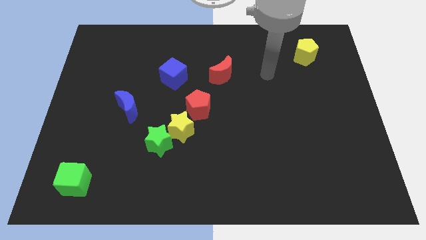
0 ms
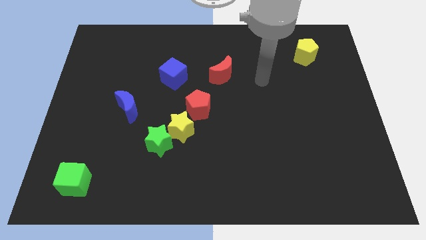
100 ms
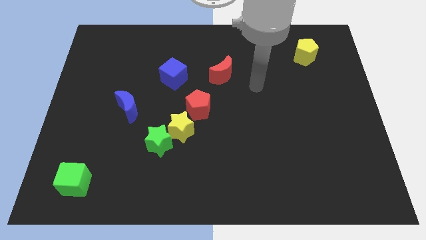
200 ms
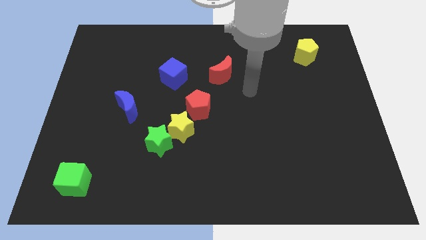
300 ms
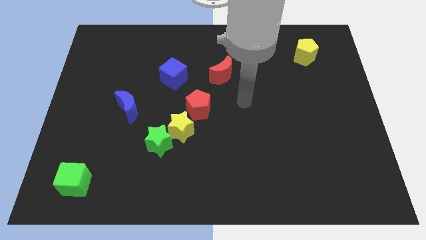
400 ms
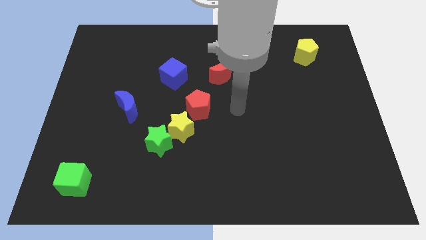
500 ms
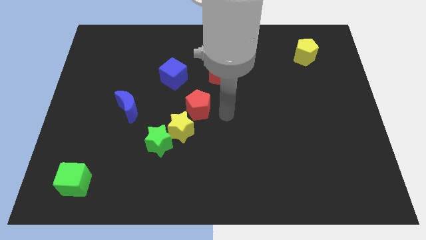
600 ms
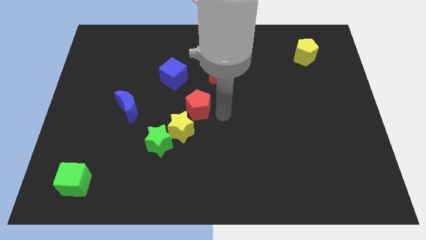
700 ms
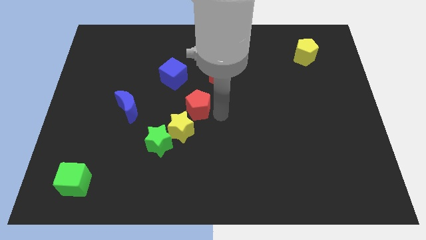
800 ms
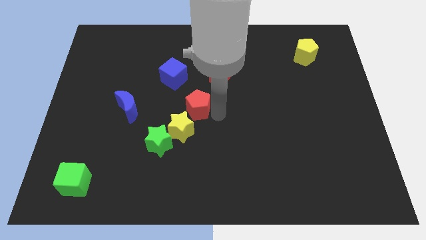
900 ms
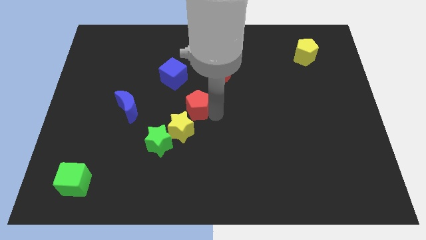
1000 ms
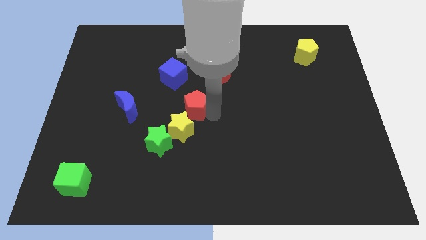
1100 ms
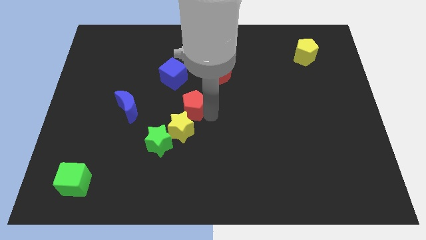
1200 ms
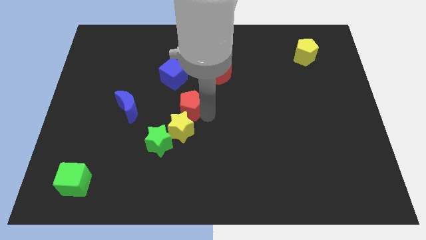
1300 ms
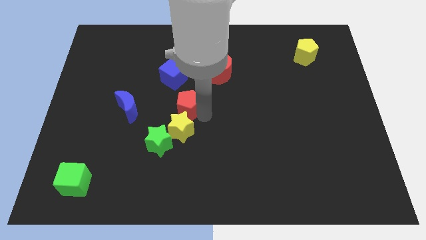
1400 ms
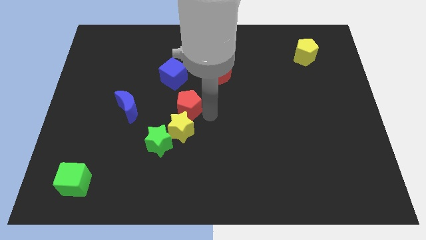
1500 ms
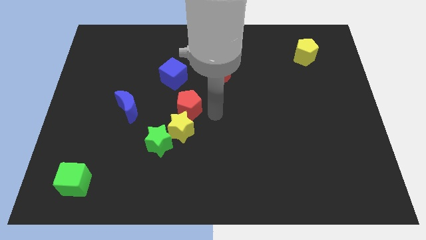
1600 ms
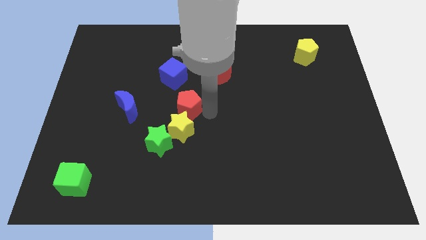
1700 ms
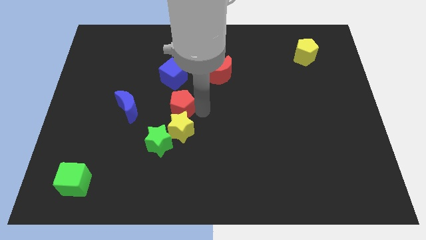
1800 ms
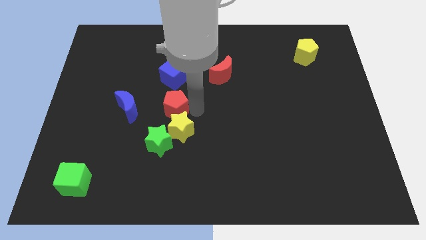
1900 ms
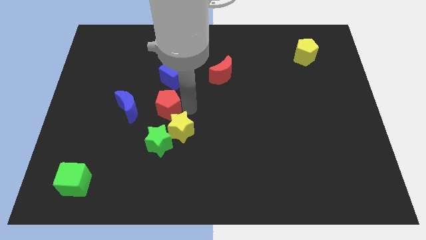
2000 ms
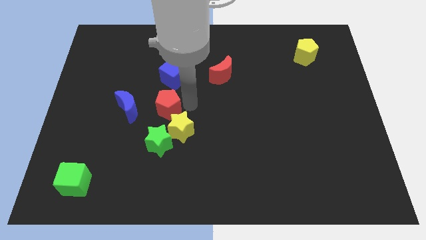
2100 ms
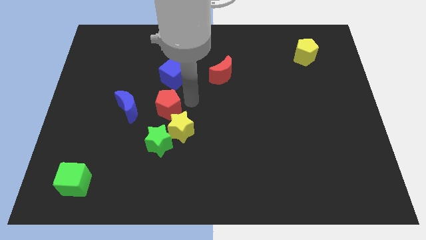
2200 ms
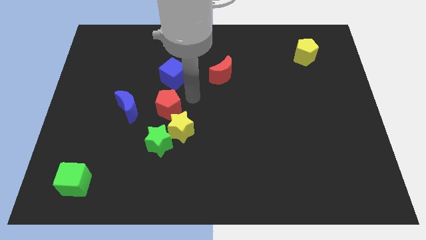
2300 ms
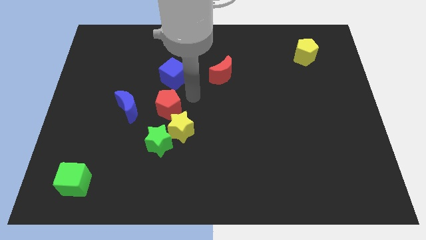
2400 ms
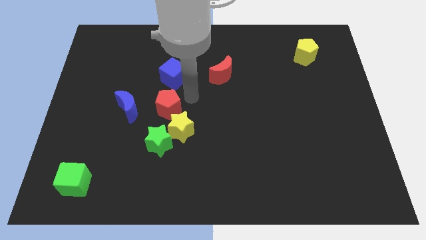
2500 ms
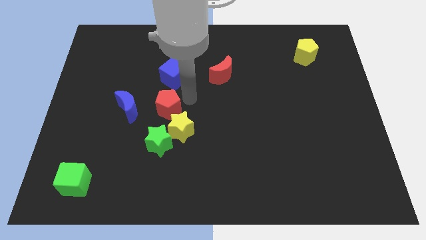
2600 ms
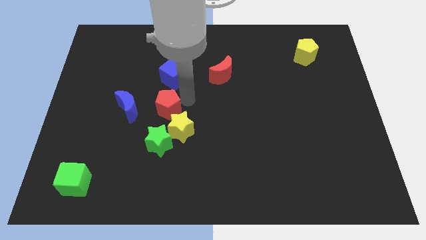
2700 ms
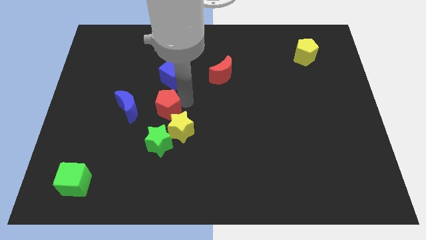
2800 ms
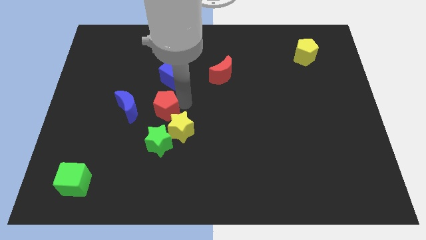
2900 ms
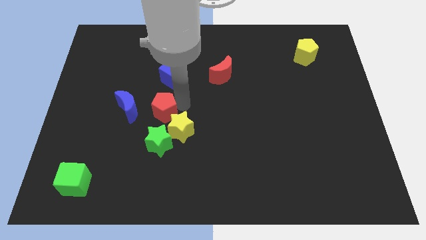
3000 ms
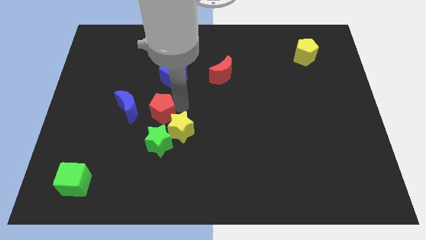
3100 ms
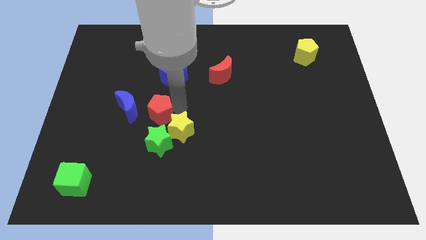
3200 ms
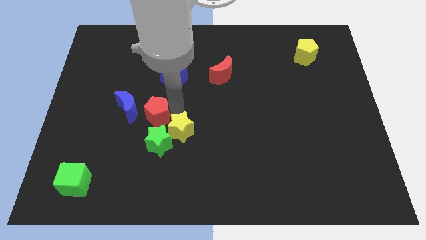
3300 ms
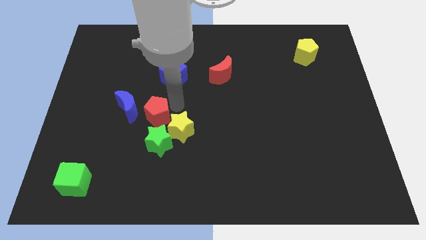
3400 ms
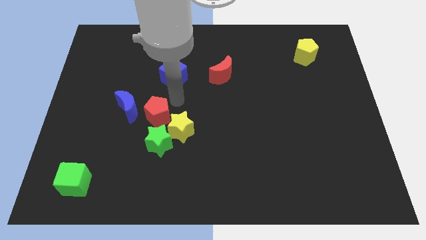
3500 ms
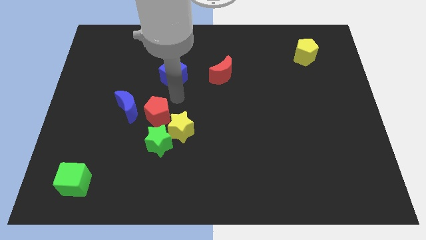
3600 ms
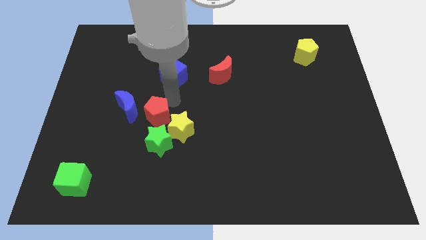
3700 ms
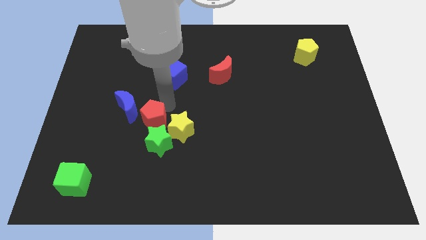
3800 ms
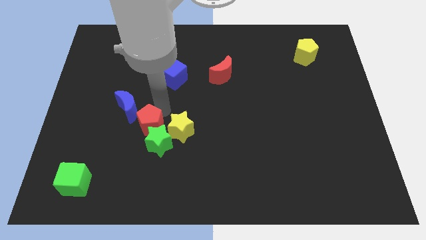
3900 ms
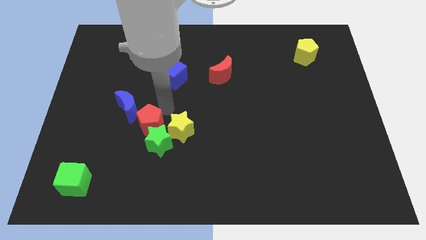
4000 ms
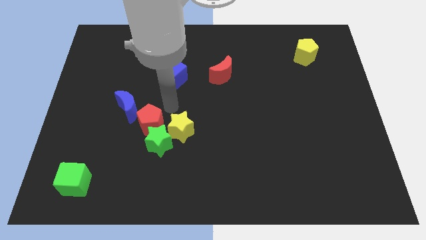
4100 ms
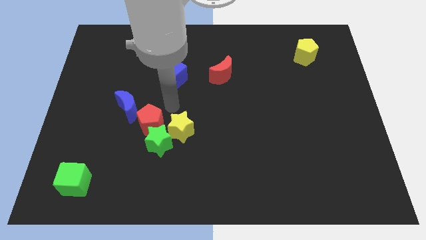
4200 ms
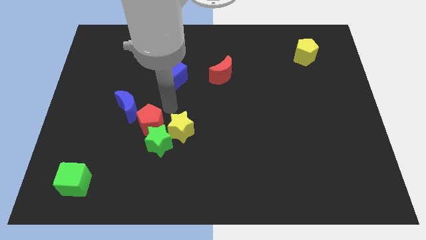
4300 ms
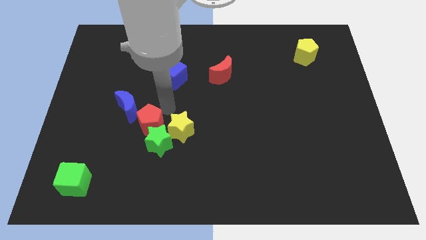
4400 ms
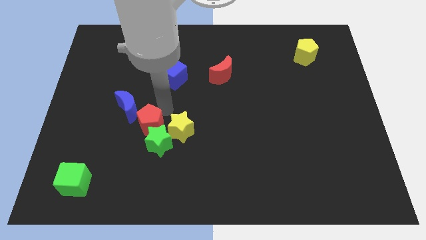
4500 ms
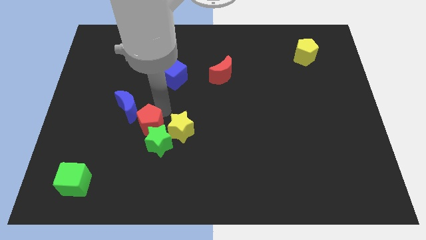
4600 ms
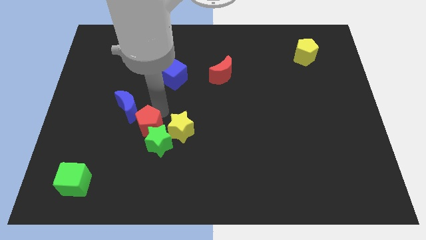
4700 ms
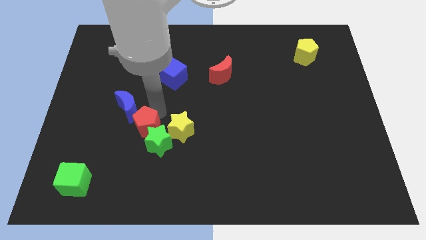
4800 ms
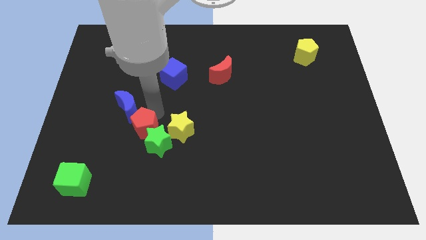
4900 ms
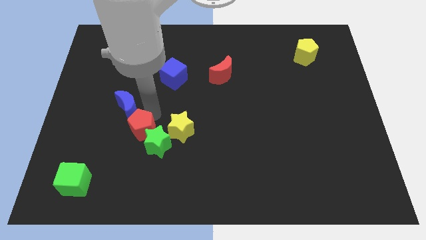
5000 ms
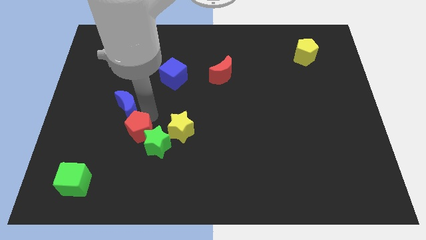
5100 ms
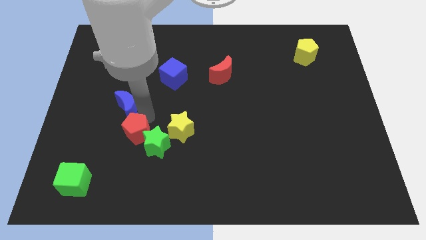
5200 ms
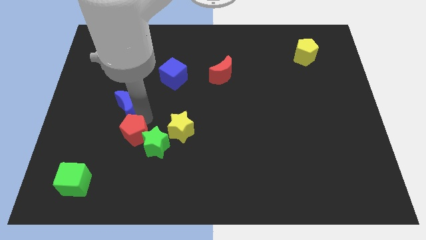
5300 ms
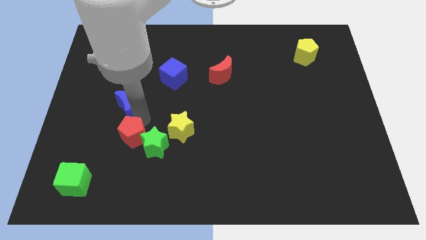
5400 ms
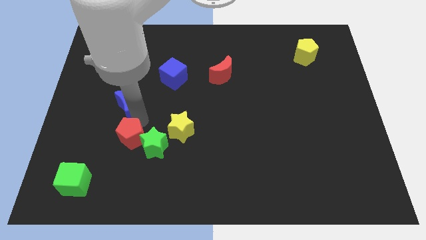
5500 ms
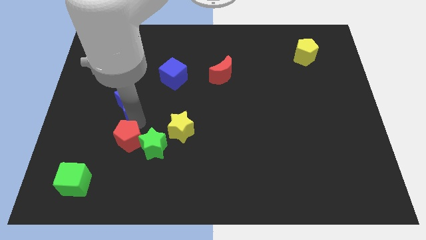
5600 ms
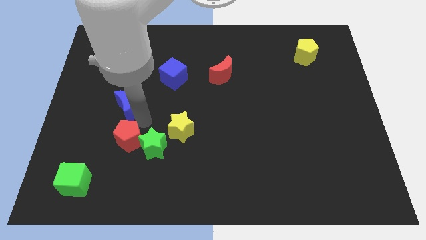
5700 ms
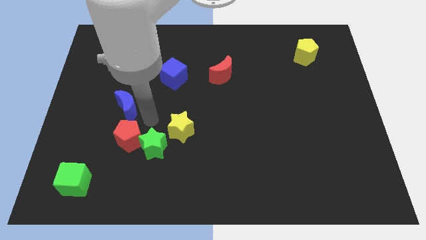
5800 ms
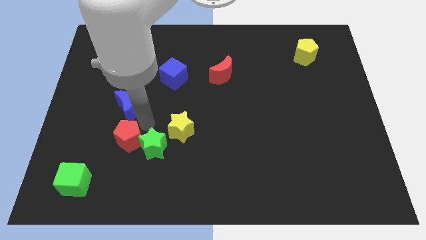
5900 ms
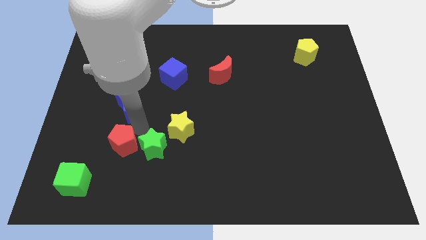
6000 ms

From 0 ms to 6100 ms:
move the red pentagon diagonally up and to the right of the green cube
